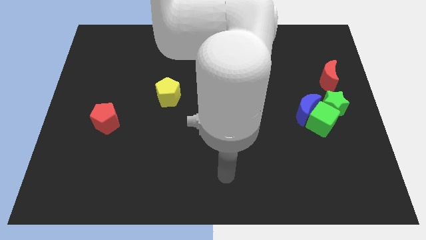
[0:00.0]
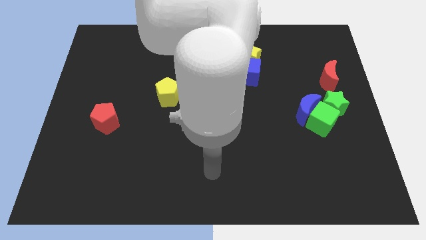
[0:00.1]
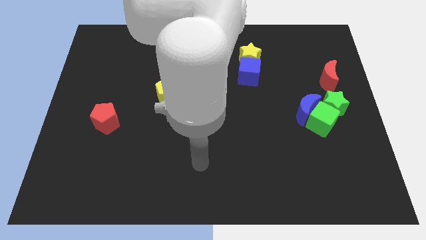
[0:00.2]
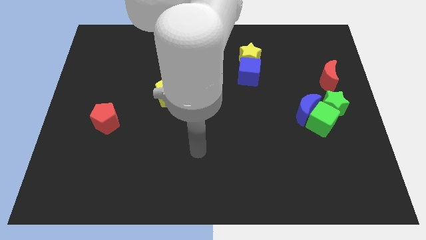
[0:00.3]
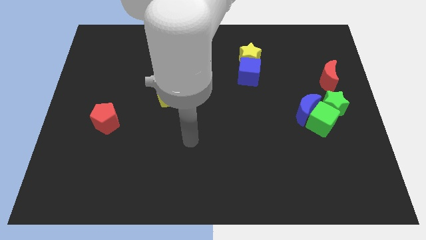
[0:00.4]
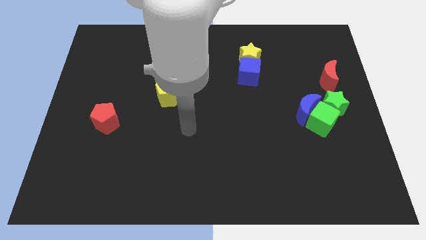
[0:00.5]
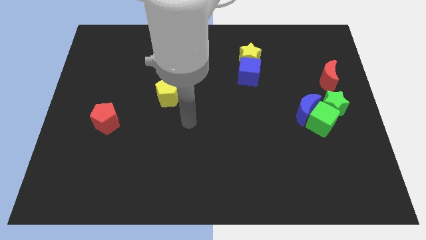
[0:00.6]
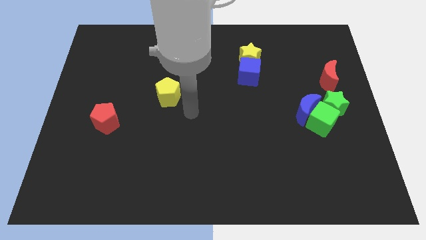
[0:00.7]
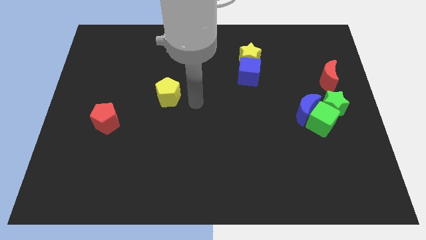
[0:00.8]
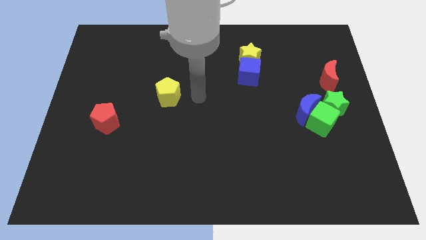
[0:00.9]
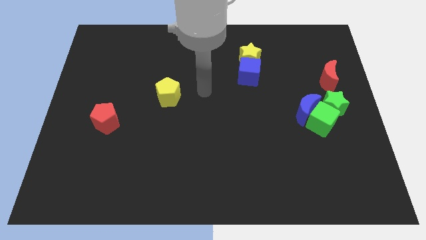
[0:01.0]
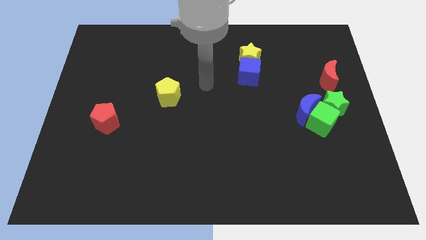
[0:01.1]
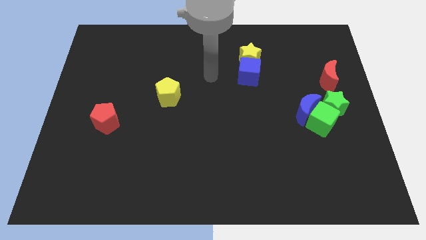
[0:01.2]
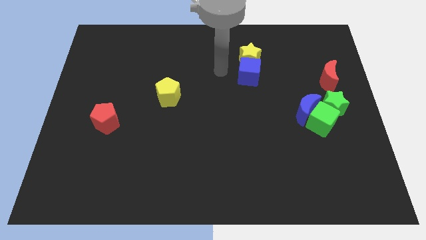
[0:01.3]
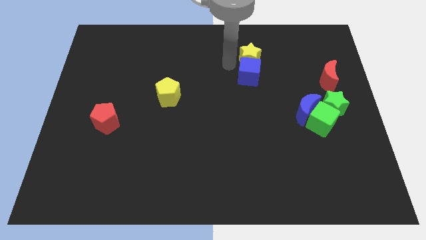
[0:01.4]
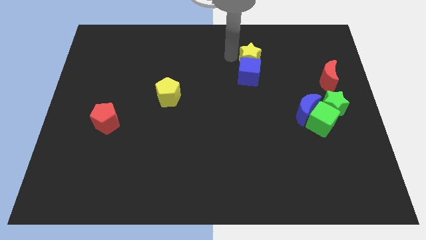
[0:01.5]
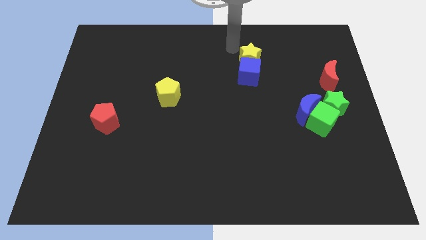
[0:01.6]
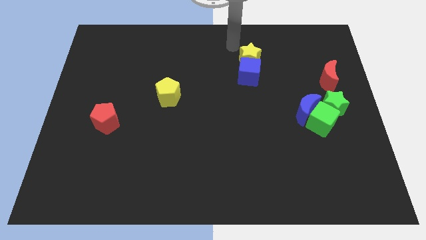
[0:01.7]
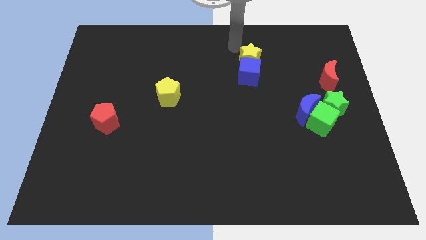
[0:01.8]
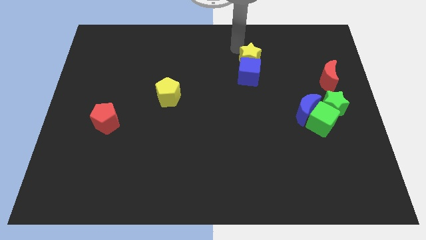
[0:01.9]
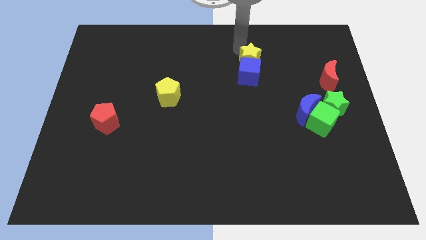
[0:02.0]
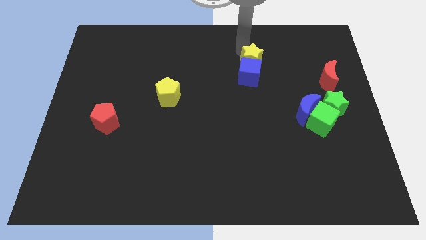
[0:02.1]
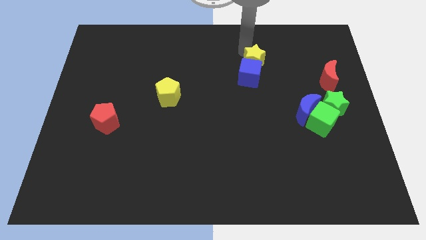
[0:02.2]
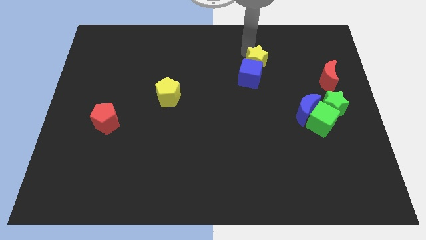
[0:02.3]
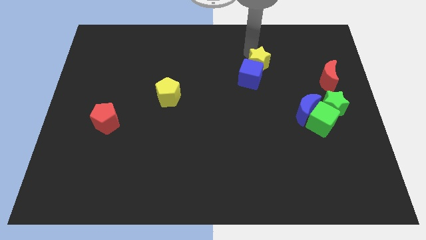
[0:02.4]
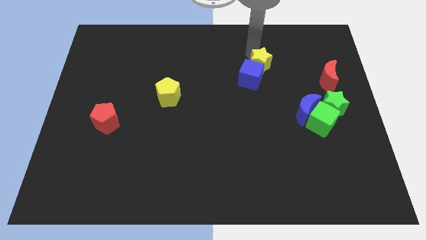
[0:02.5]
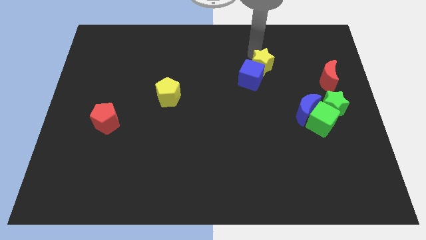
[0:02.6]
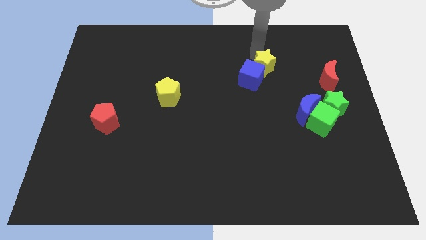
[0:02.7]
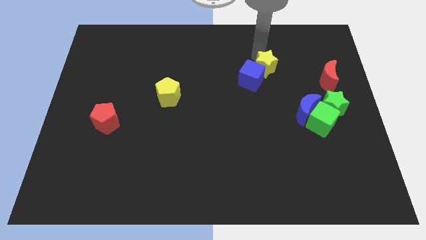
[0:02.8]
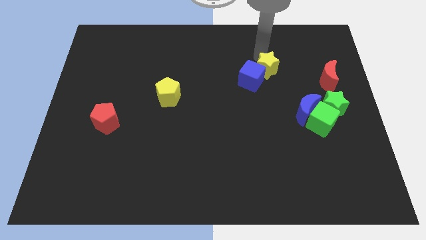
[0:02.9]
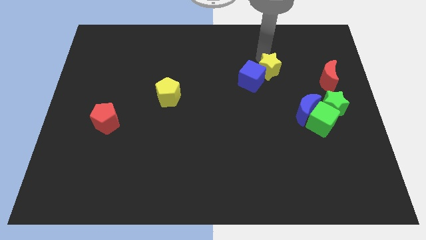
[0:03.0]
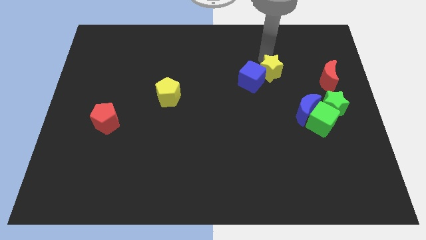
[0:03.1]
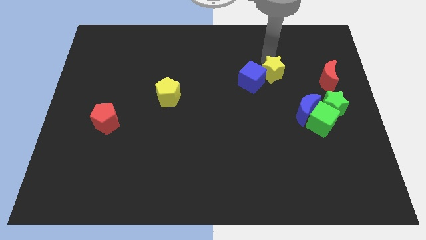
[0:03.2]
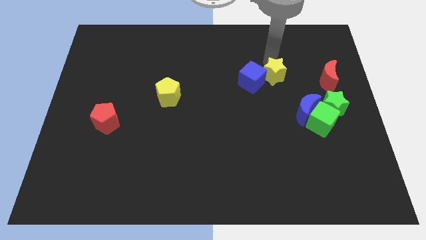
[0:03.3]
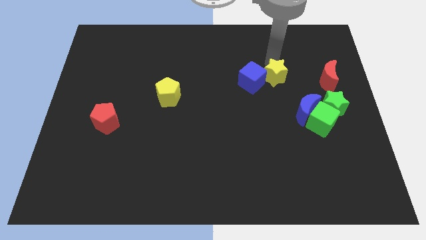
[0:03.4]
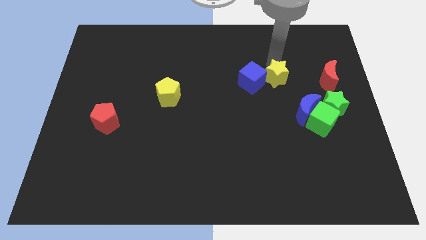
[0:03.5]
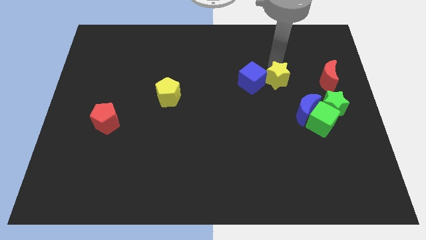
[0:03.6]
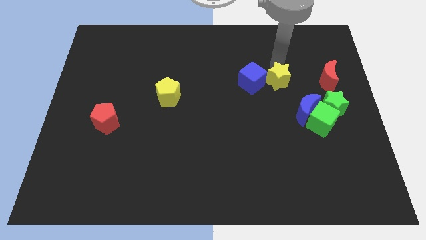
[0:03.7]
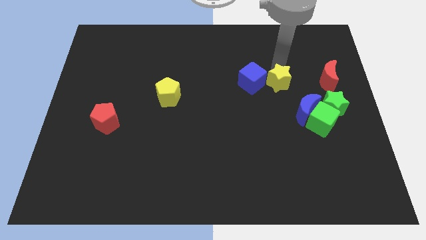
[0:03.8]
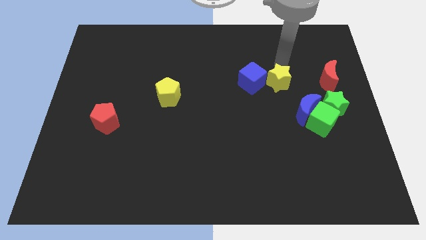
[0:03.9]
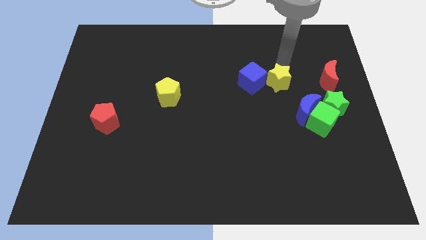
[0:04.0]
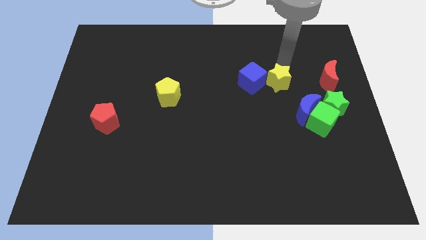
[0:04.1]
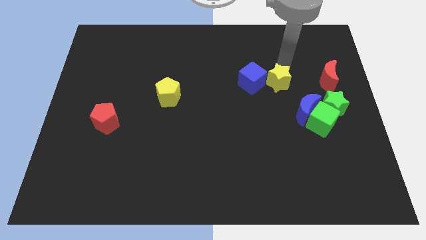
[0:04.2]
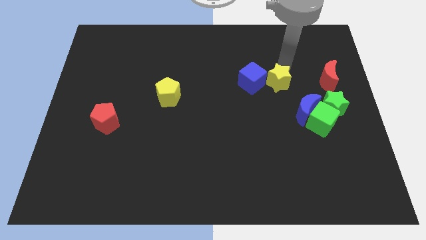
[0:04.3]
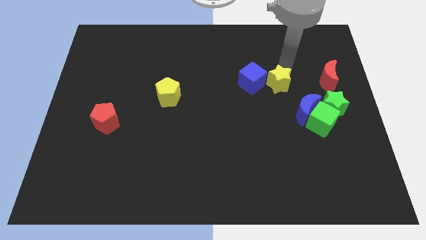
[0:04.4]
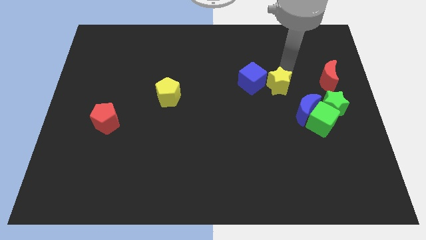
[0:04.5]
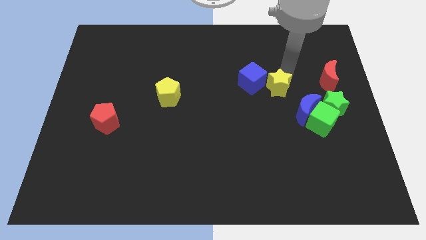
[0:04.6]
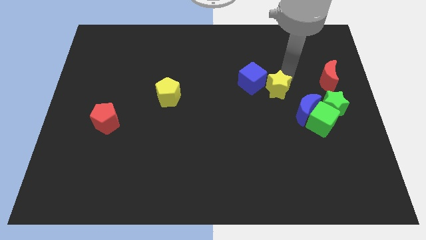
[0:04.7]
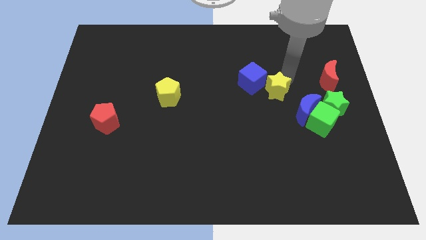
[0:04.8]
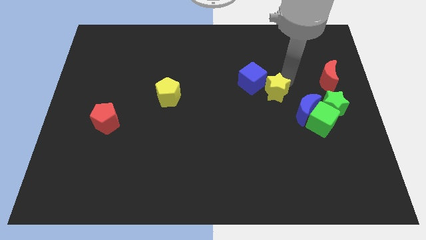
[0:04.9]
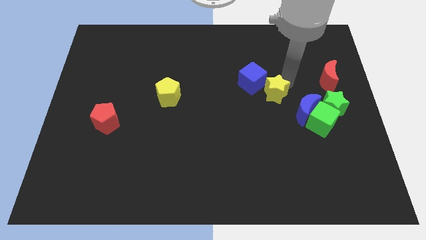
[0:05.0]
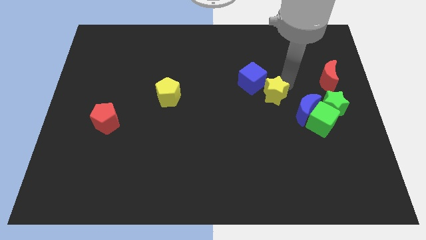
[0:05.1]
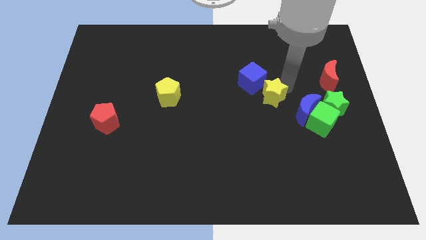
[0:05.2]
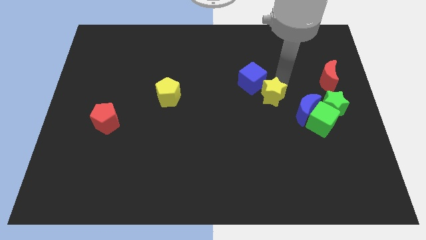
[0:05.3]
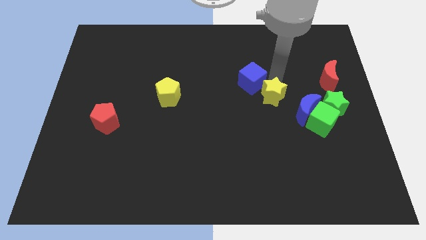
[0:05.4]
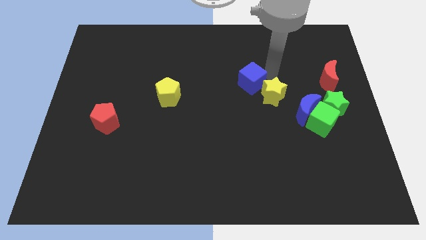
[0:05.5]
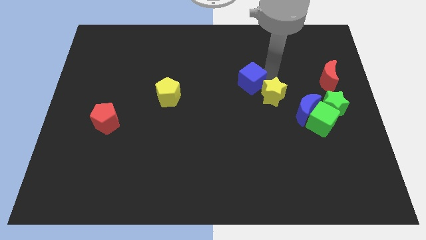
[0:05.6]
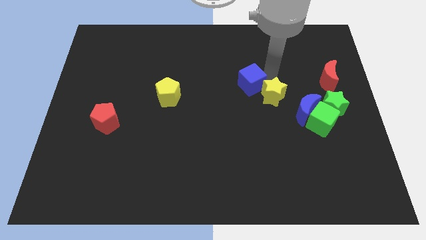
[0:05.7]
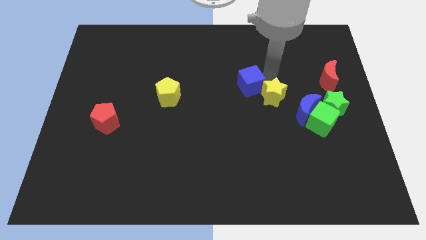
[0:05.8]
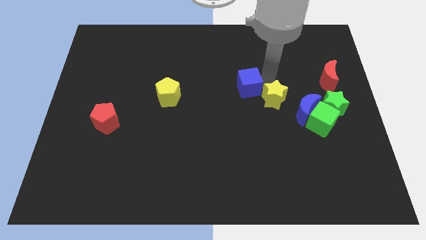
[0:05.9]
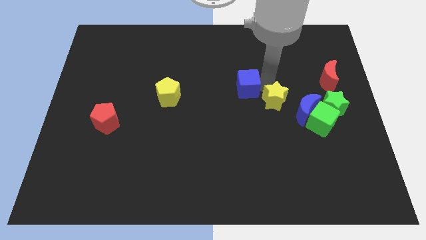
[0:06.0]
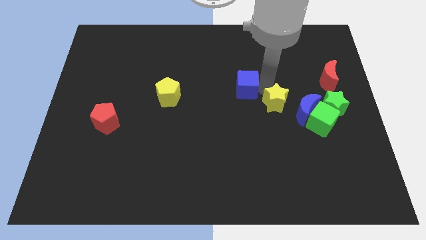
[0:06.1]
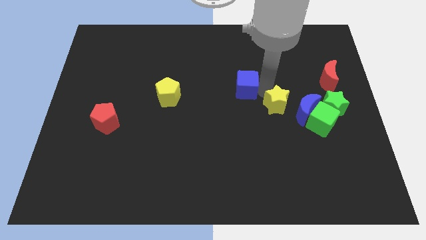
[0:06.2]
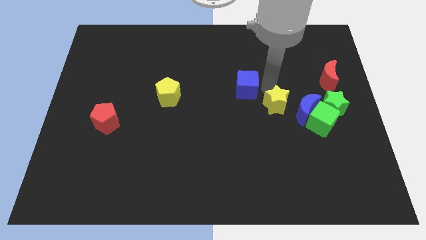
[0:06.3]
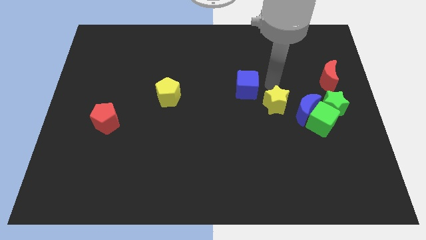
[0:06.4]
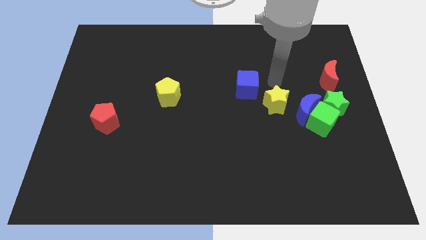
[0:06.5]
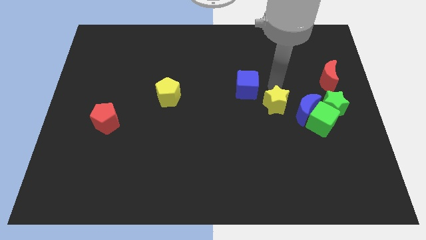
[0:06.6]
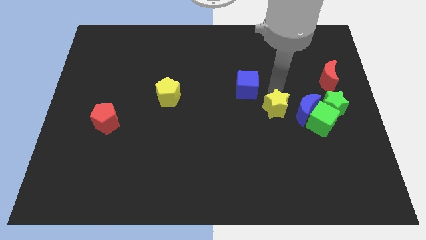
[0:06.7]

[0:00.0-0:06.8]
slide the yellow star to the left side of the green cube

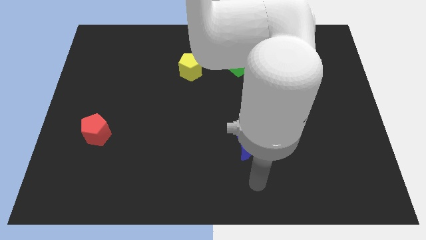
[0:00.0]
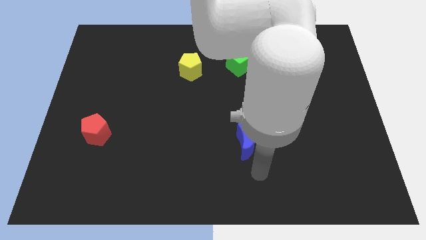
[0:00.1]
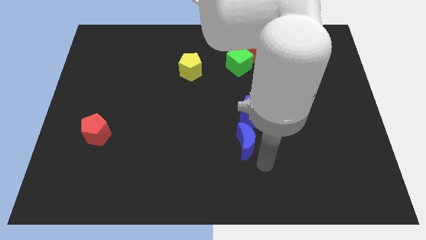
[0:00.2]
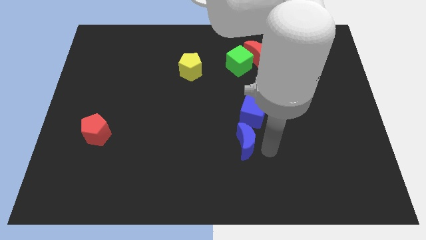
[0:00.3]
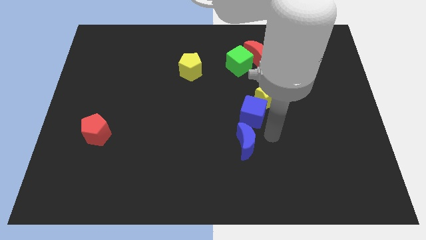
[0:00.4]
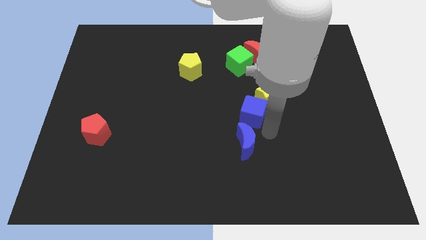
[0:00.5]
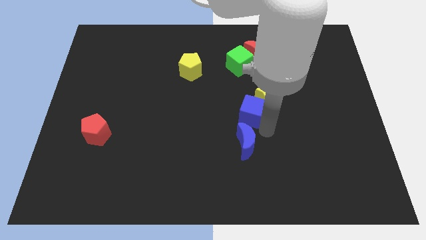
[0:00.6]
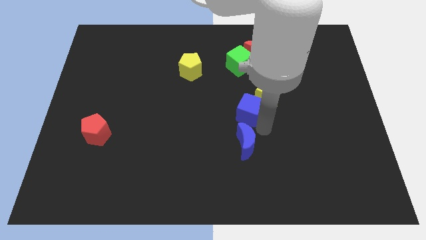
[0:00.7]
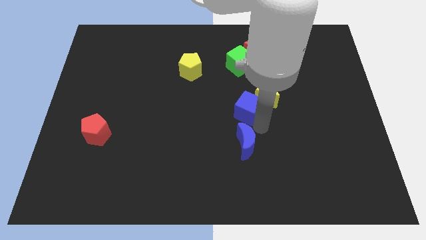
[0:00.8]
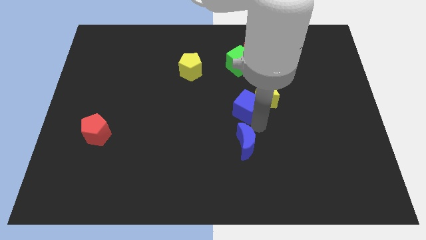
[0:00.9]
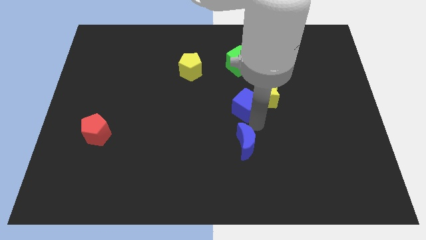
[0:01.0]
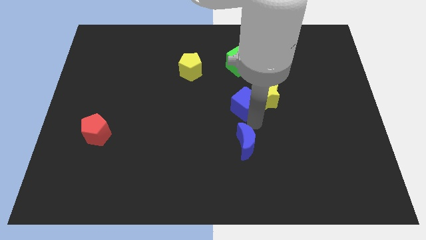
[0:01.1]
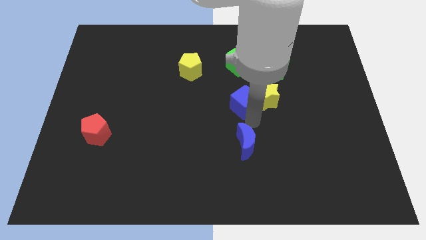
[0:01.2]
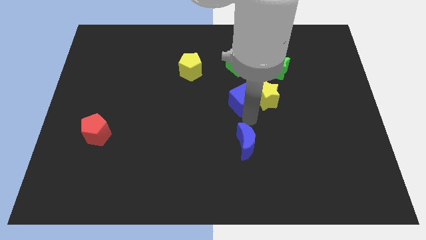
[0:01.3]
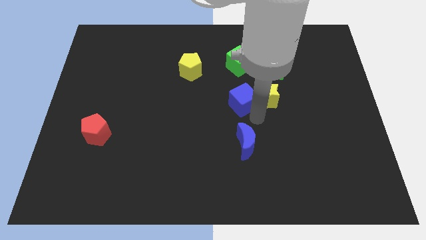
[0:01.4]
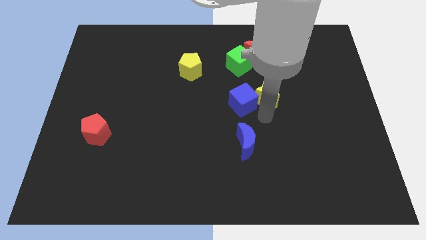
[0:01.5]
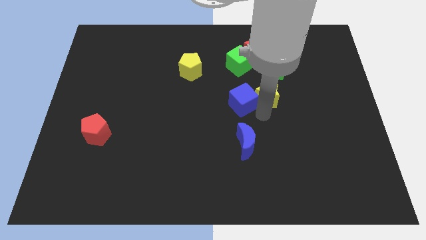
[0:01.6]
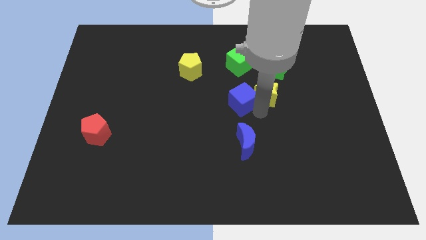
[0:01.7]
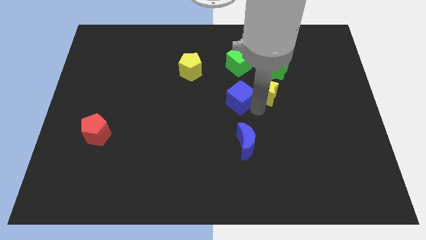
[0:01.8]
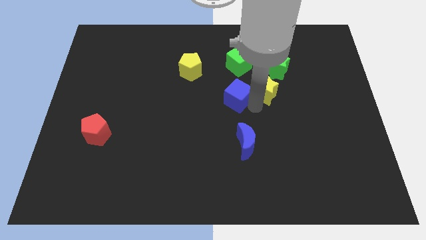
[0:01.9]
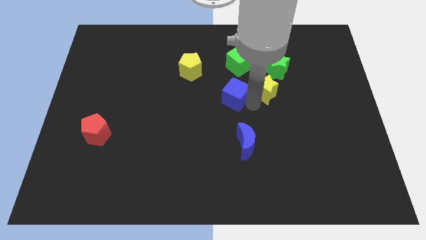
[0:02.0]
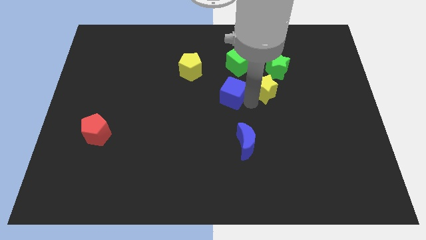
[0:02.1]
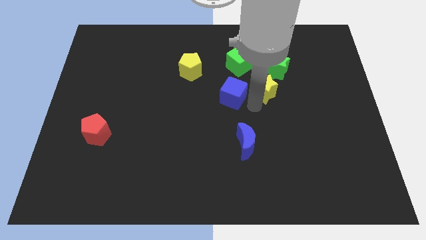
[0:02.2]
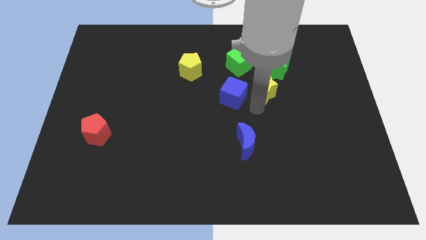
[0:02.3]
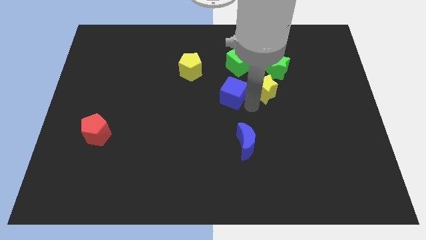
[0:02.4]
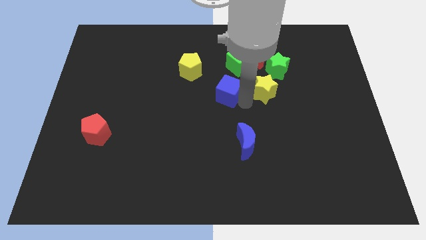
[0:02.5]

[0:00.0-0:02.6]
slide the blue cube diagonally down and to the right of the yellow pentagon
